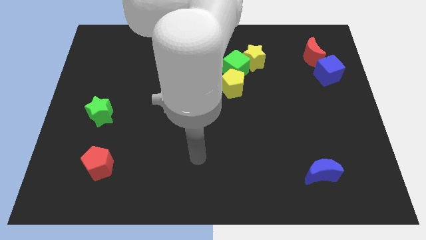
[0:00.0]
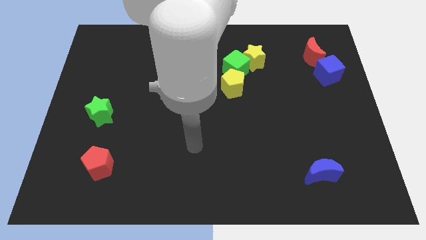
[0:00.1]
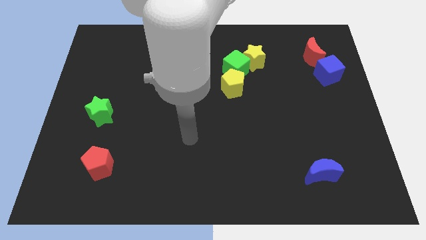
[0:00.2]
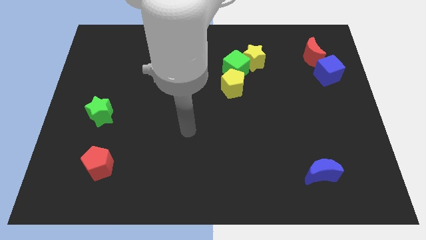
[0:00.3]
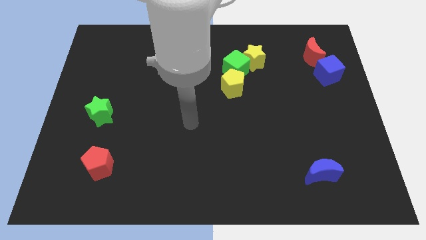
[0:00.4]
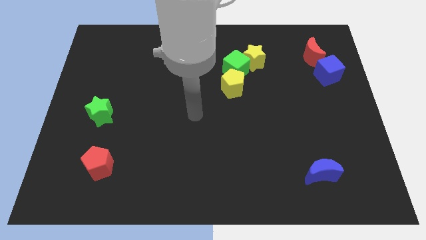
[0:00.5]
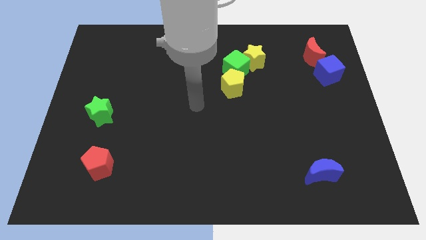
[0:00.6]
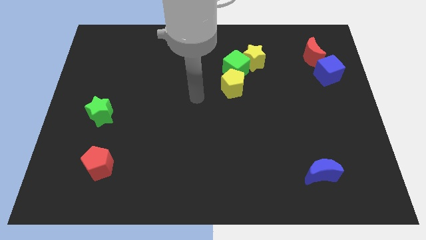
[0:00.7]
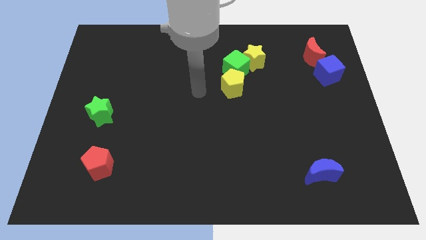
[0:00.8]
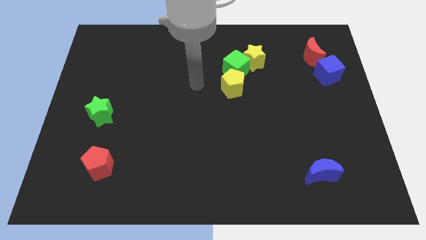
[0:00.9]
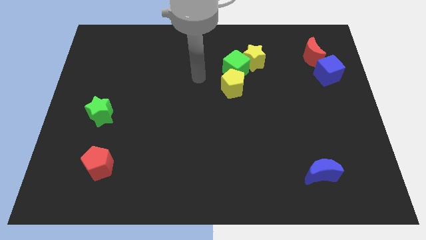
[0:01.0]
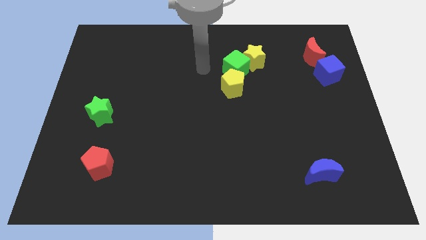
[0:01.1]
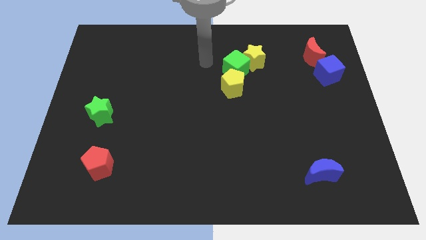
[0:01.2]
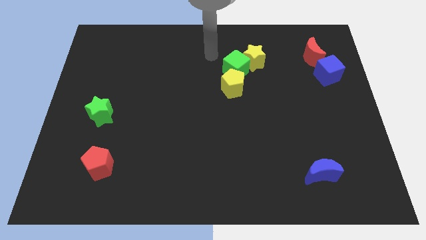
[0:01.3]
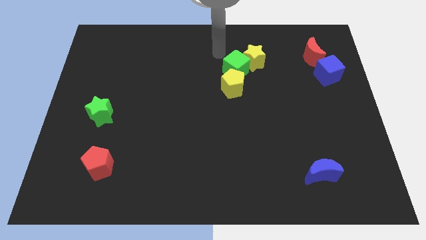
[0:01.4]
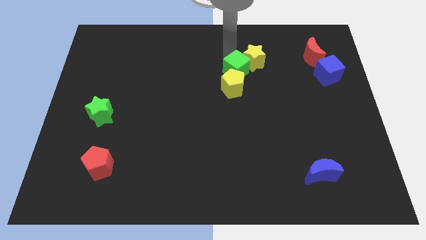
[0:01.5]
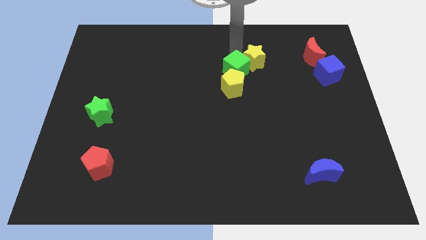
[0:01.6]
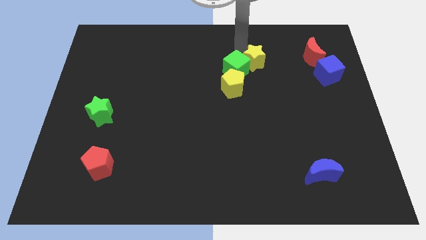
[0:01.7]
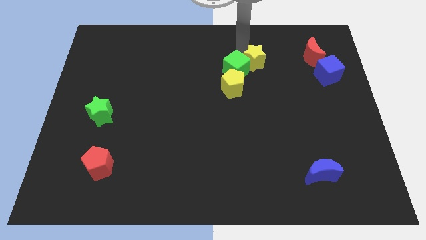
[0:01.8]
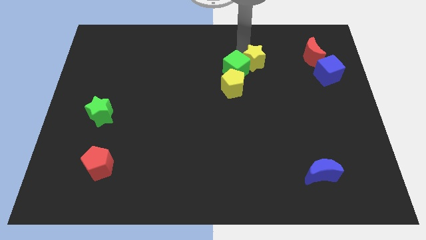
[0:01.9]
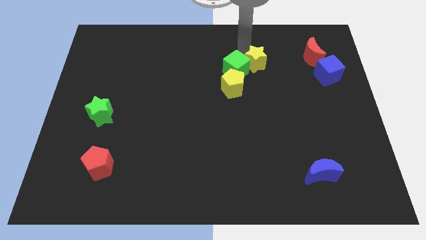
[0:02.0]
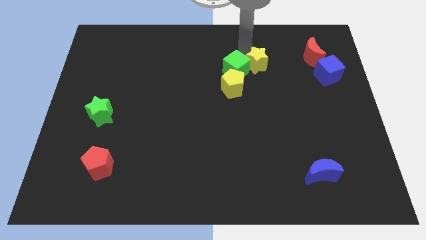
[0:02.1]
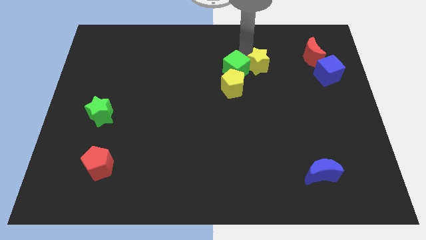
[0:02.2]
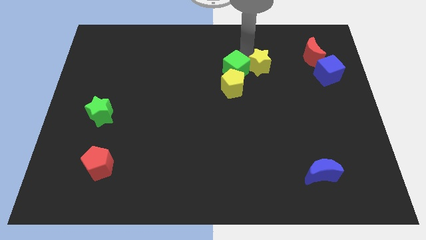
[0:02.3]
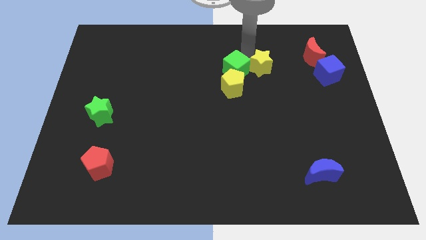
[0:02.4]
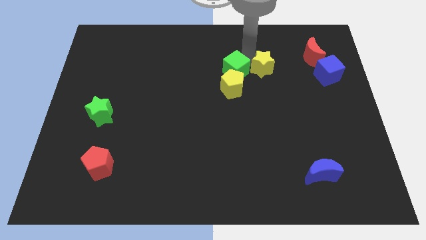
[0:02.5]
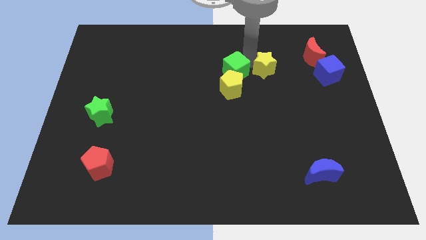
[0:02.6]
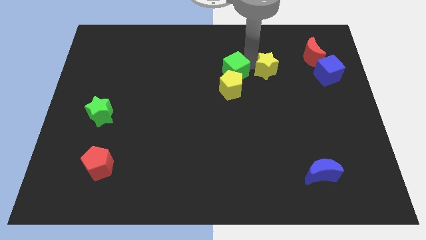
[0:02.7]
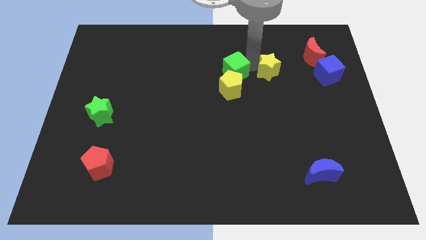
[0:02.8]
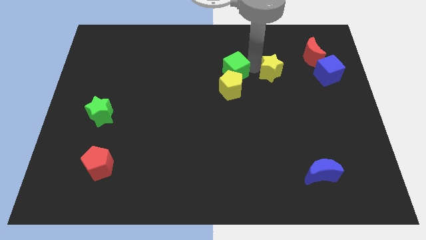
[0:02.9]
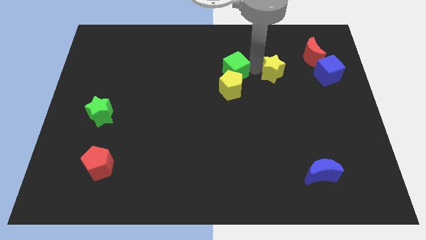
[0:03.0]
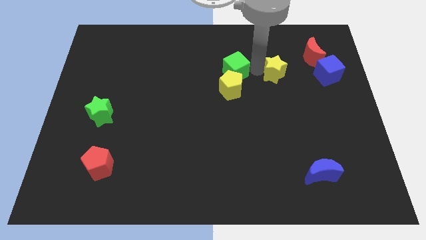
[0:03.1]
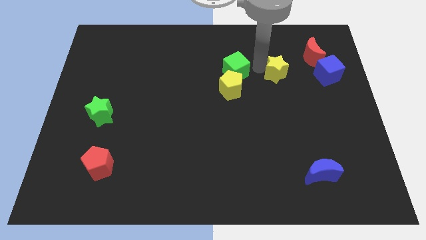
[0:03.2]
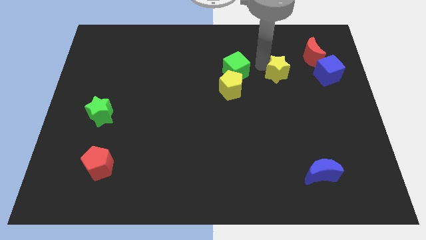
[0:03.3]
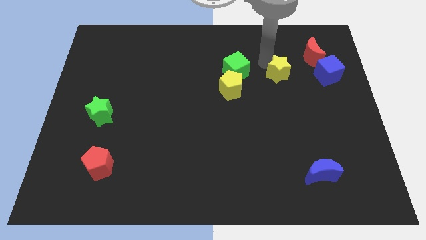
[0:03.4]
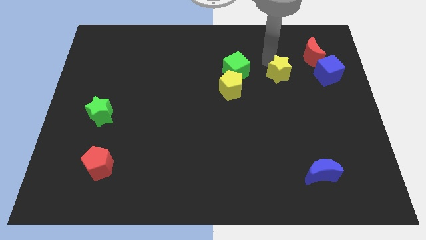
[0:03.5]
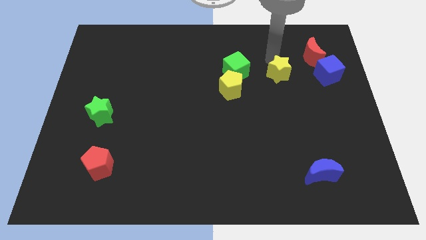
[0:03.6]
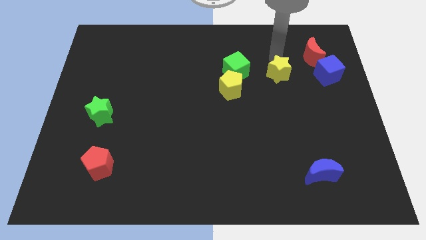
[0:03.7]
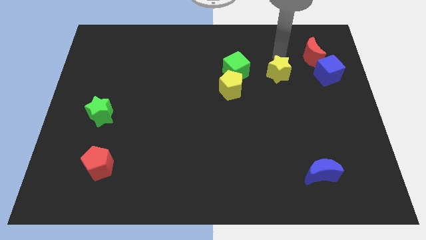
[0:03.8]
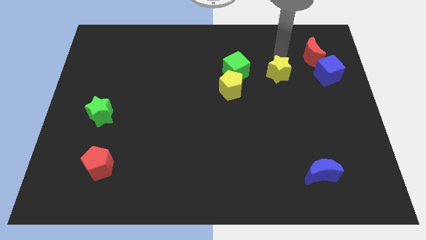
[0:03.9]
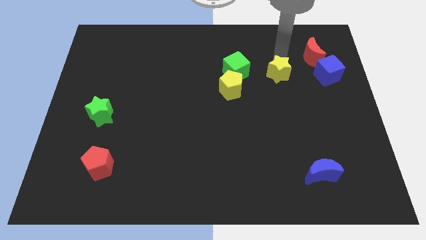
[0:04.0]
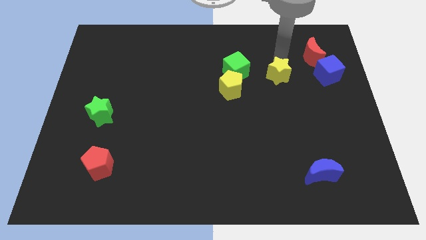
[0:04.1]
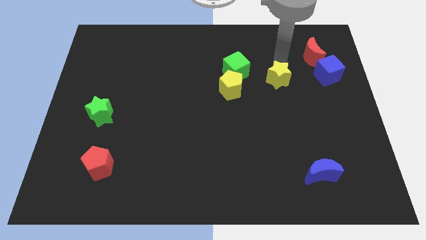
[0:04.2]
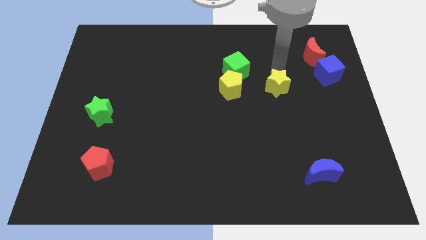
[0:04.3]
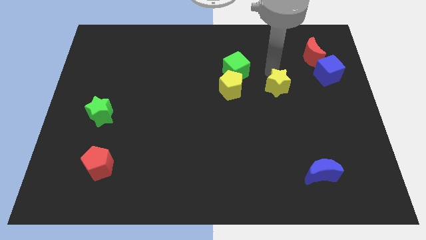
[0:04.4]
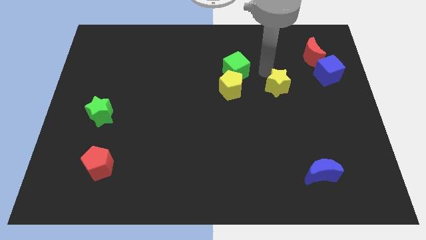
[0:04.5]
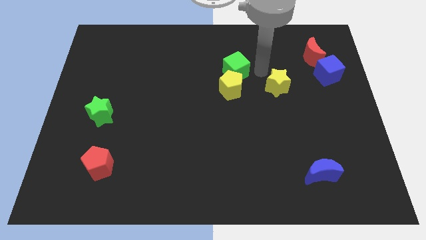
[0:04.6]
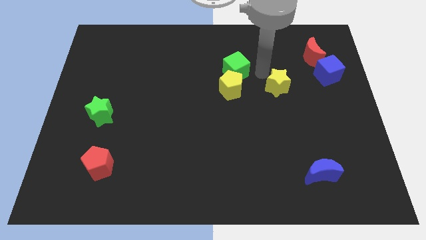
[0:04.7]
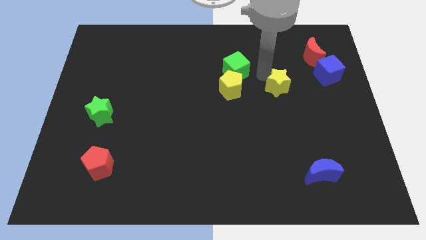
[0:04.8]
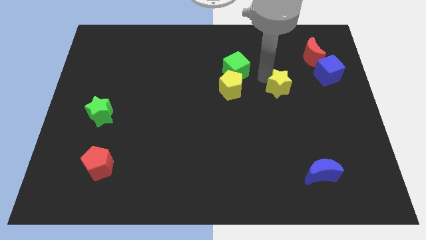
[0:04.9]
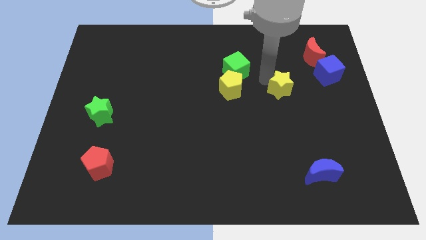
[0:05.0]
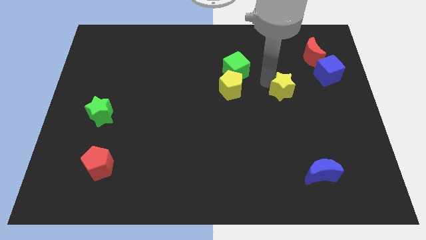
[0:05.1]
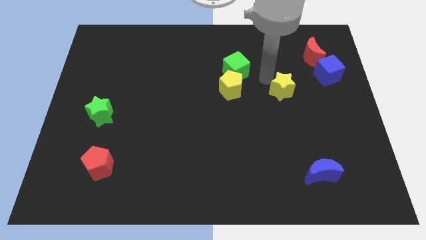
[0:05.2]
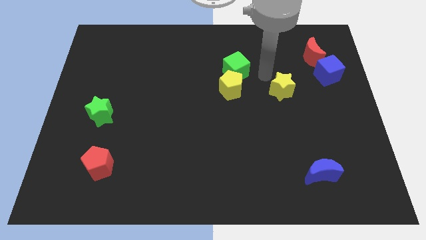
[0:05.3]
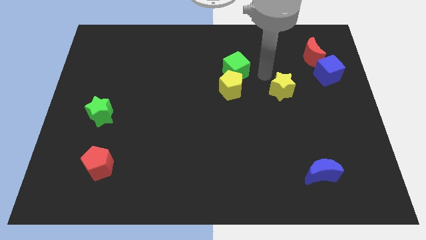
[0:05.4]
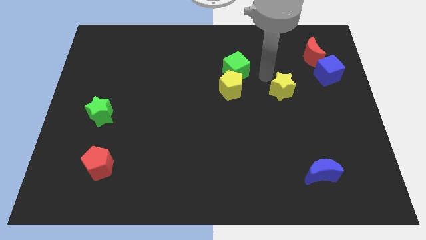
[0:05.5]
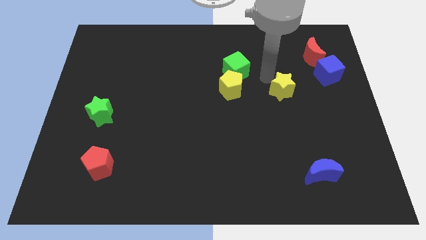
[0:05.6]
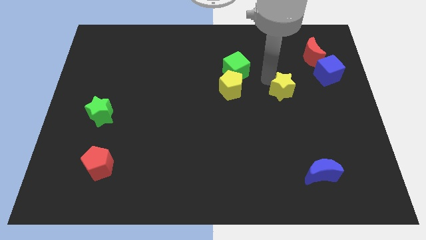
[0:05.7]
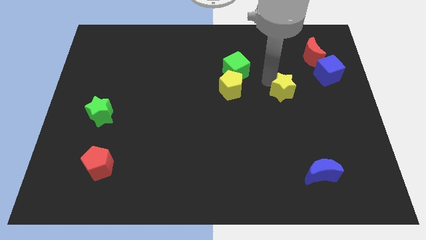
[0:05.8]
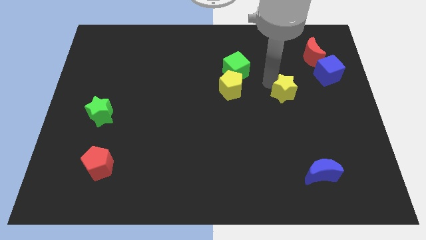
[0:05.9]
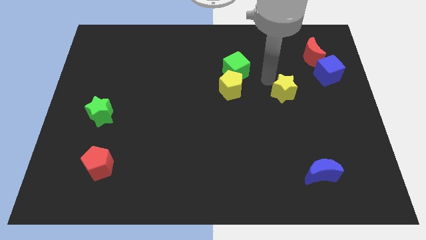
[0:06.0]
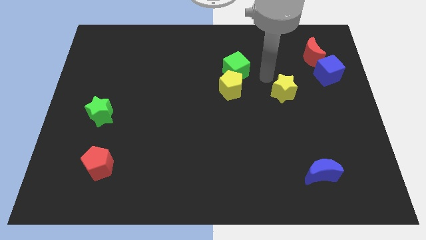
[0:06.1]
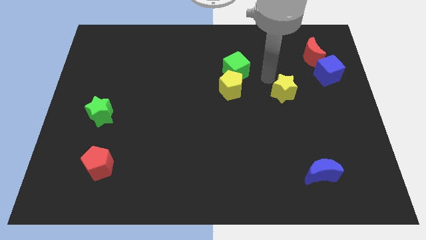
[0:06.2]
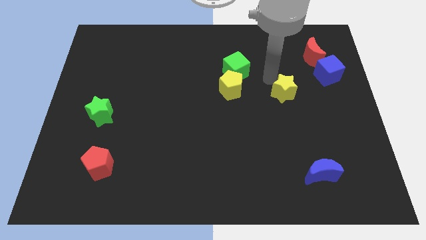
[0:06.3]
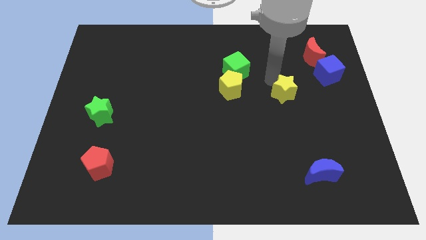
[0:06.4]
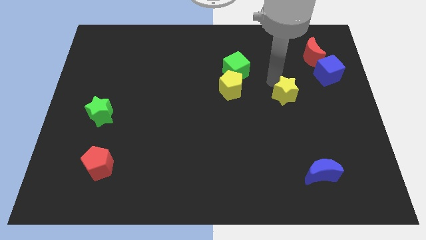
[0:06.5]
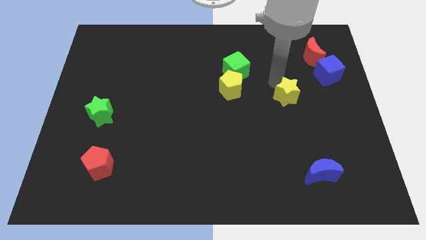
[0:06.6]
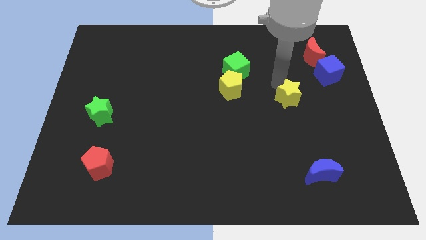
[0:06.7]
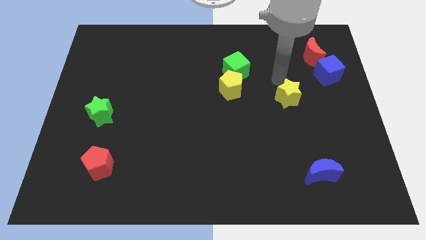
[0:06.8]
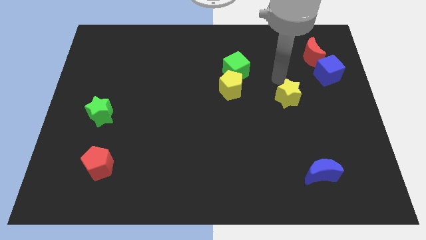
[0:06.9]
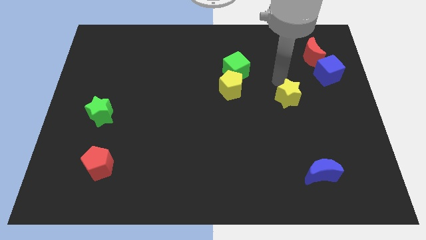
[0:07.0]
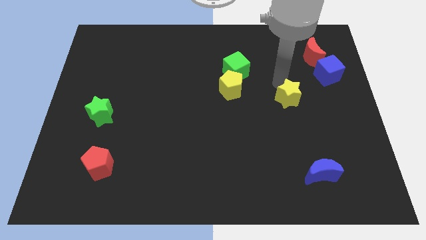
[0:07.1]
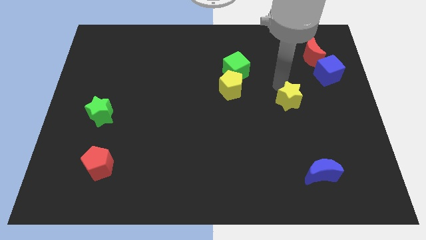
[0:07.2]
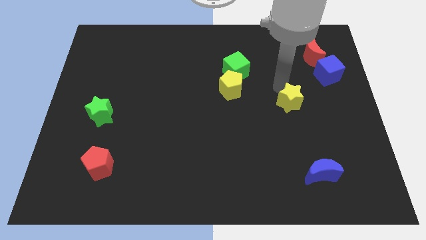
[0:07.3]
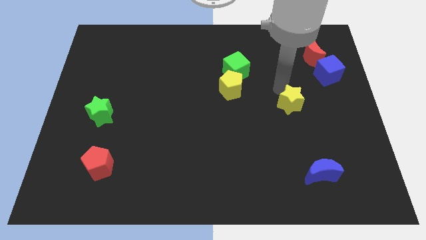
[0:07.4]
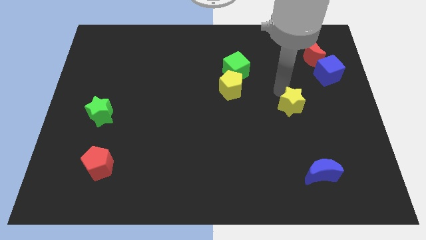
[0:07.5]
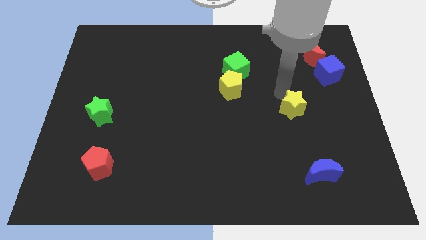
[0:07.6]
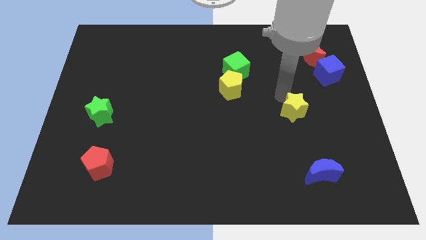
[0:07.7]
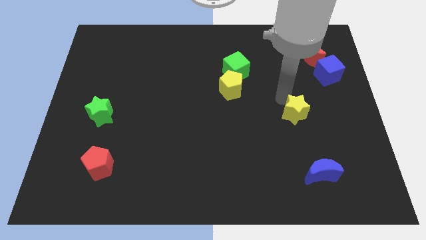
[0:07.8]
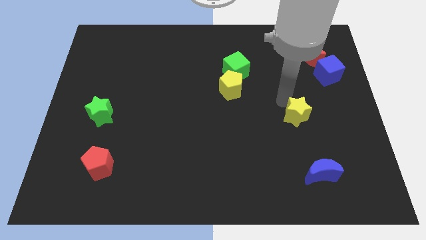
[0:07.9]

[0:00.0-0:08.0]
put the yellow star to the top of the blue moon
